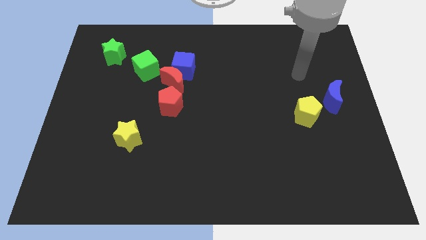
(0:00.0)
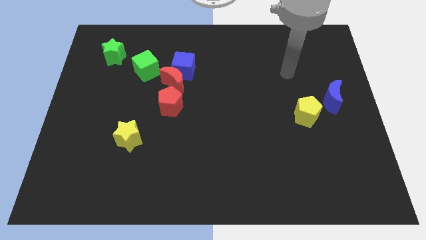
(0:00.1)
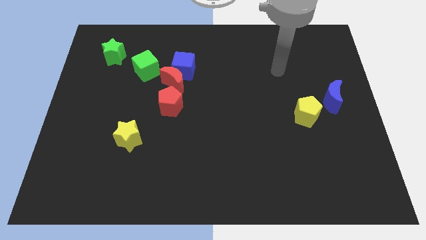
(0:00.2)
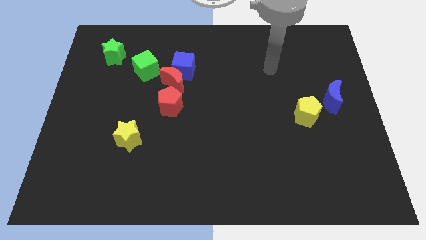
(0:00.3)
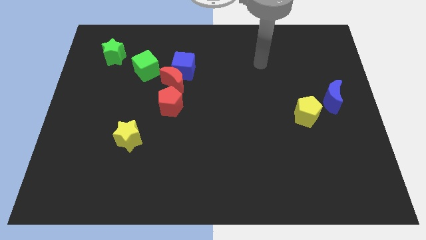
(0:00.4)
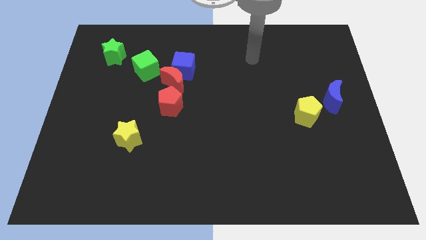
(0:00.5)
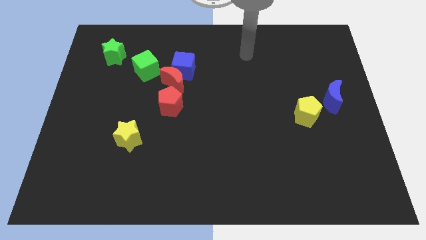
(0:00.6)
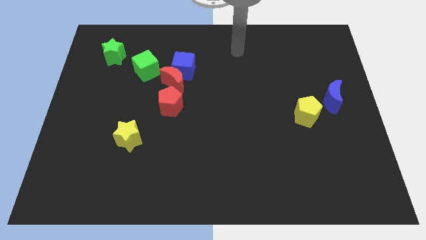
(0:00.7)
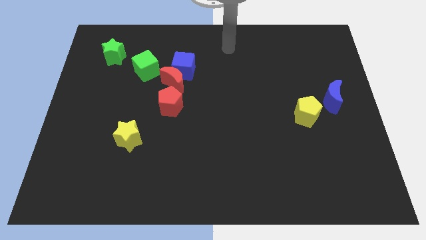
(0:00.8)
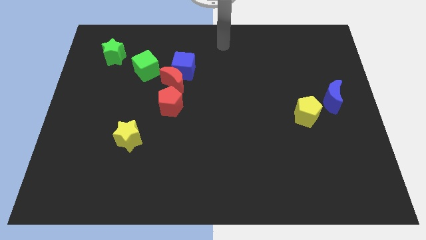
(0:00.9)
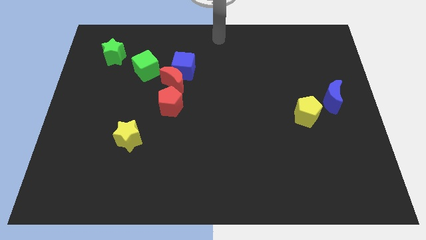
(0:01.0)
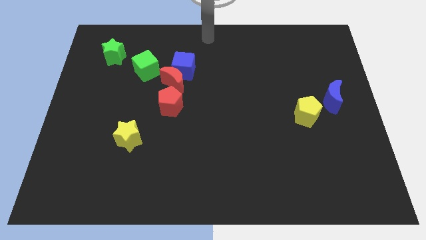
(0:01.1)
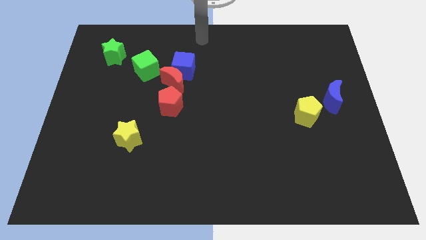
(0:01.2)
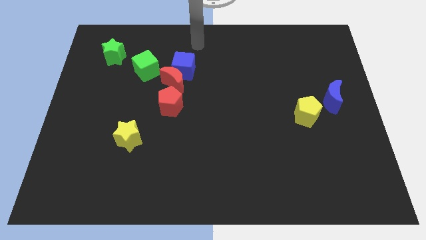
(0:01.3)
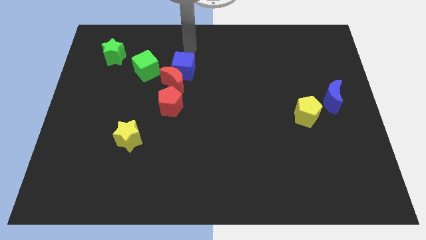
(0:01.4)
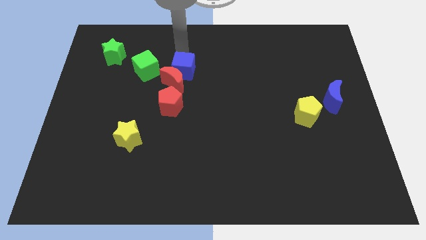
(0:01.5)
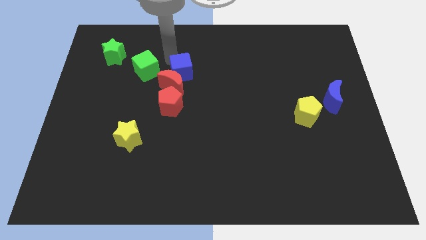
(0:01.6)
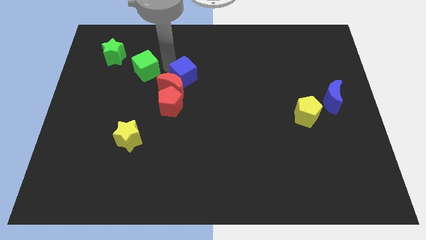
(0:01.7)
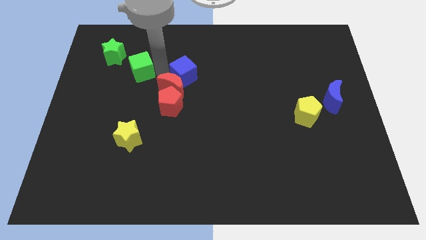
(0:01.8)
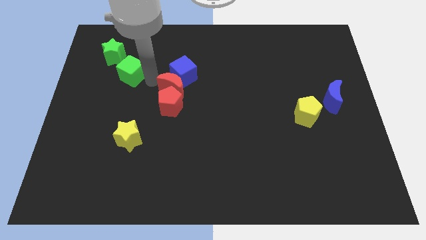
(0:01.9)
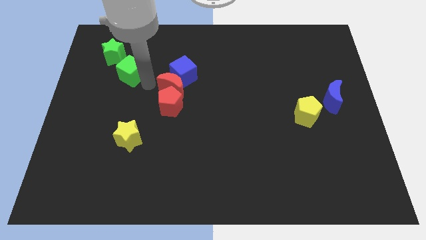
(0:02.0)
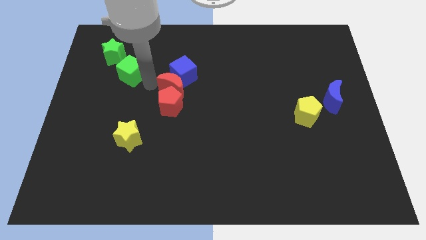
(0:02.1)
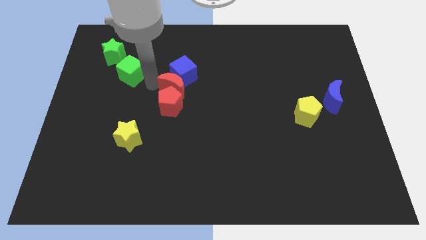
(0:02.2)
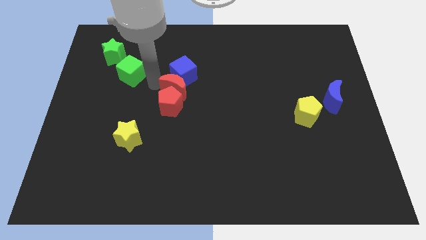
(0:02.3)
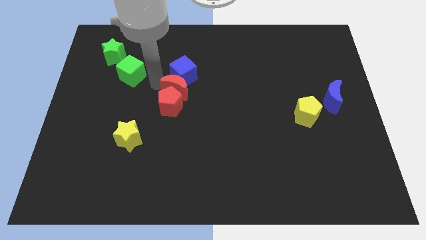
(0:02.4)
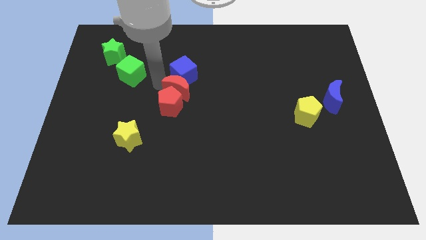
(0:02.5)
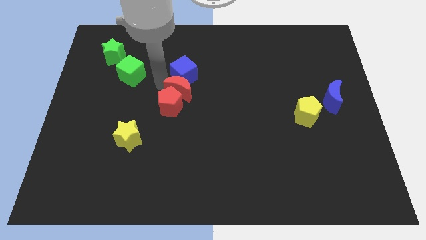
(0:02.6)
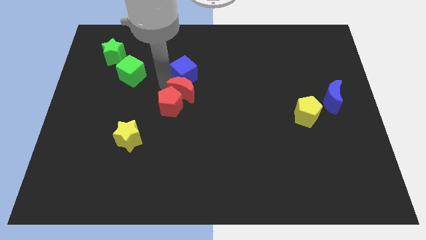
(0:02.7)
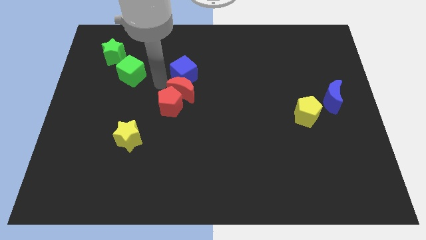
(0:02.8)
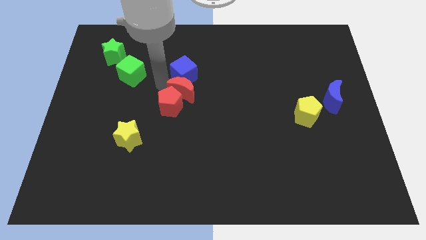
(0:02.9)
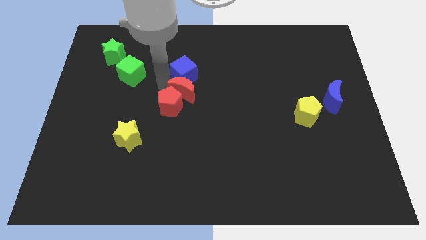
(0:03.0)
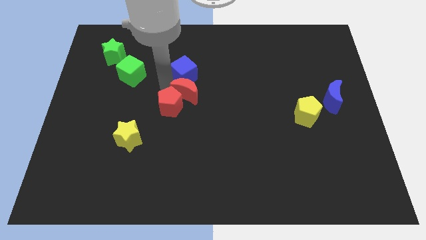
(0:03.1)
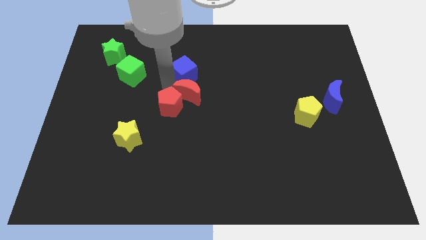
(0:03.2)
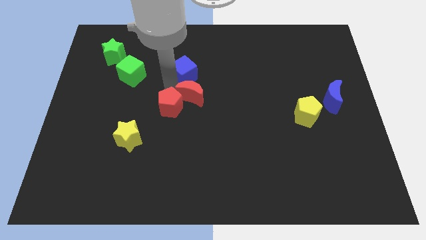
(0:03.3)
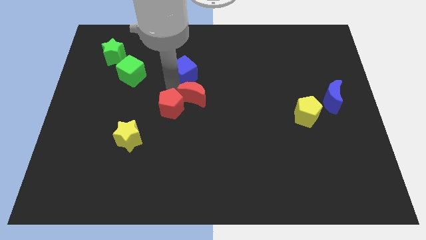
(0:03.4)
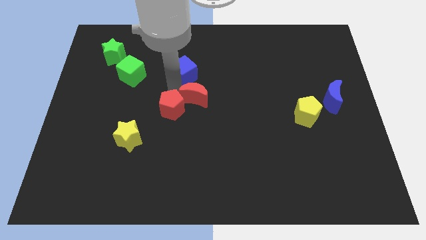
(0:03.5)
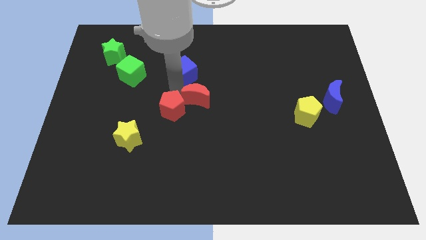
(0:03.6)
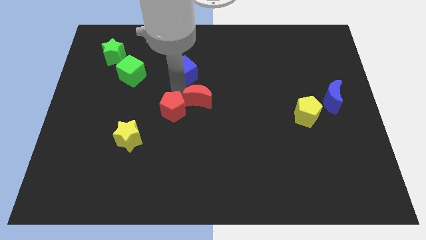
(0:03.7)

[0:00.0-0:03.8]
pull the red moon apart from the blue cube, red pentagon, and green cube

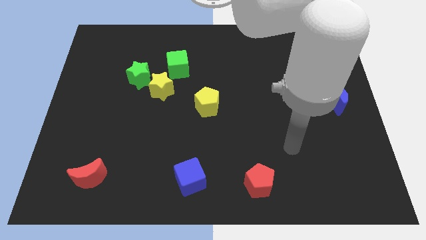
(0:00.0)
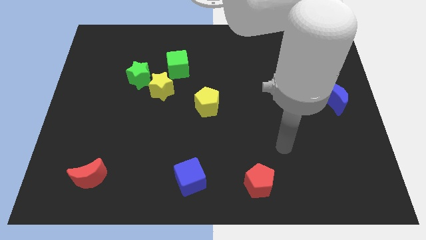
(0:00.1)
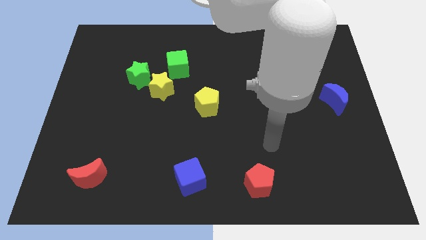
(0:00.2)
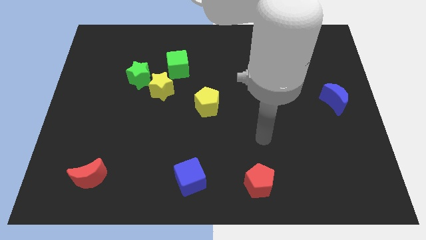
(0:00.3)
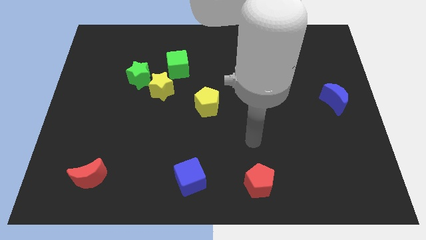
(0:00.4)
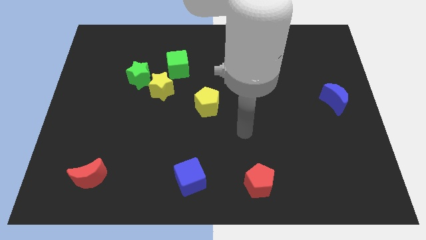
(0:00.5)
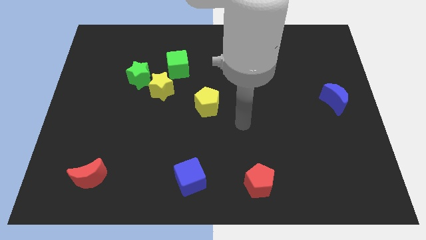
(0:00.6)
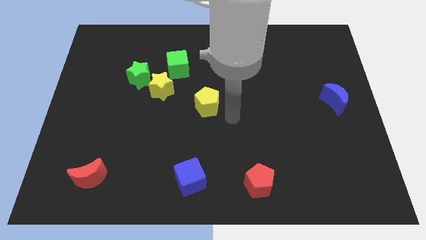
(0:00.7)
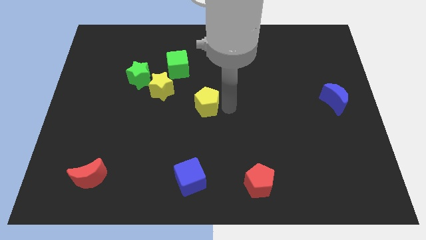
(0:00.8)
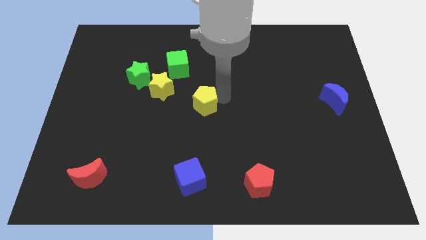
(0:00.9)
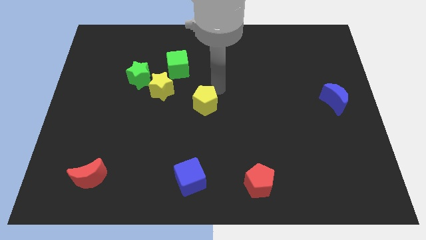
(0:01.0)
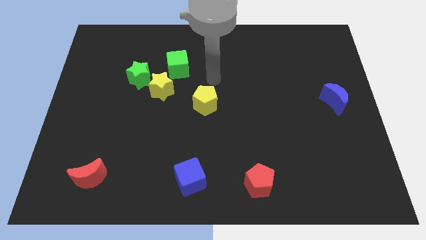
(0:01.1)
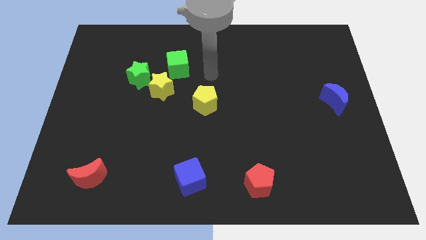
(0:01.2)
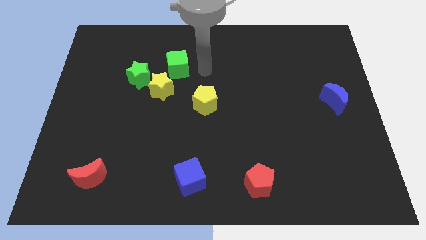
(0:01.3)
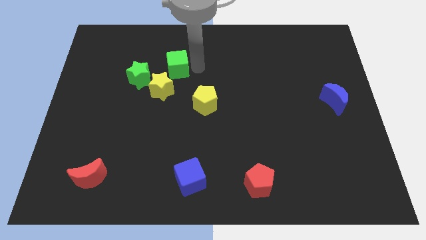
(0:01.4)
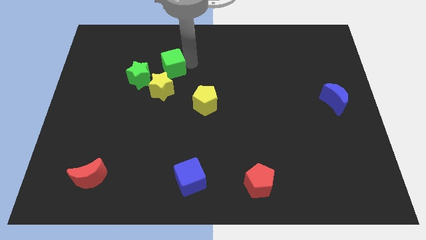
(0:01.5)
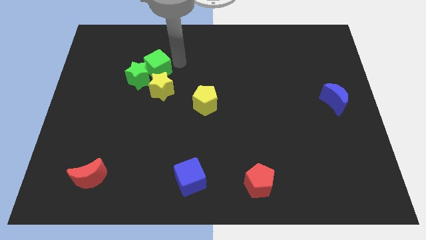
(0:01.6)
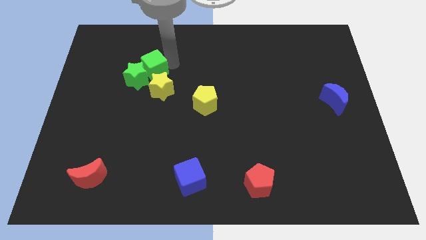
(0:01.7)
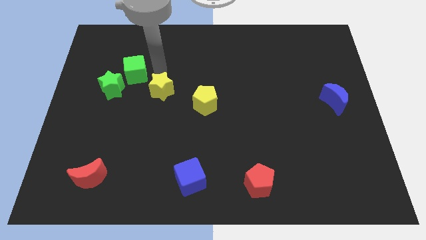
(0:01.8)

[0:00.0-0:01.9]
separate the yellow star from the green star and green cube

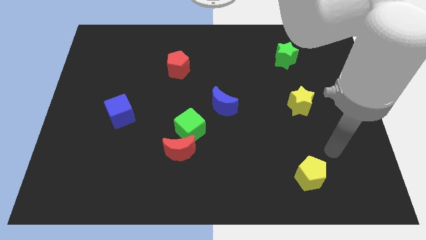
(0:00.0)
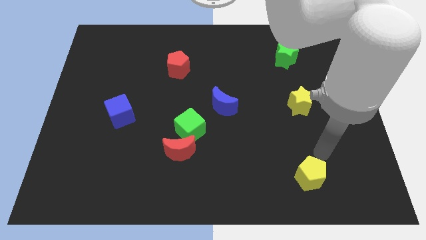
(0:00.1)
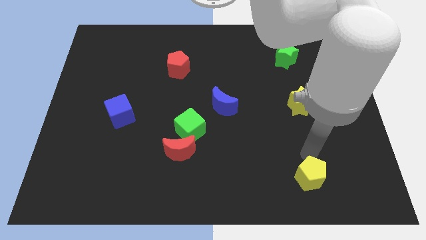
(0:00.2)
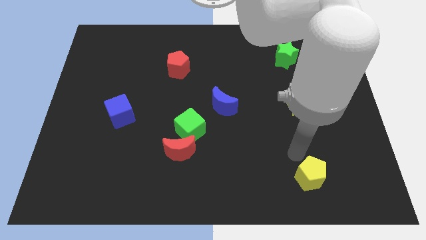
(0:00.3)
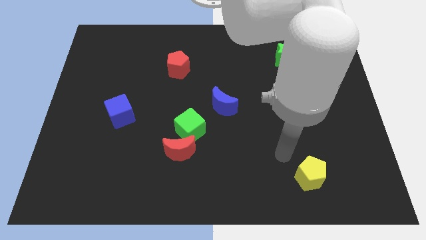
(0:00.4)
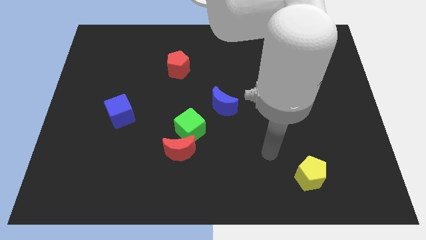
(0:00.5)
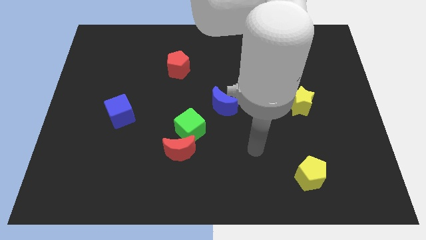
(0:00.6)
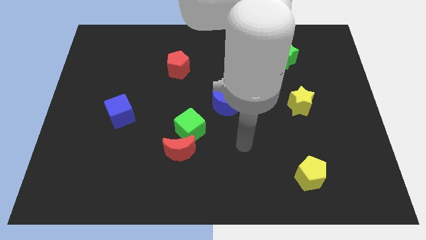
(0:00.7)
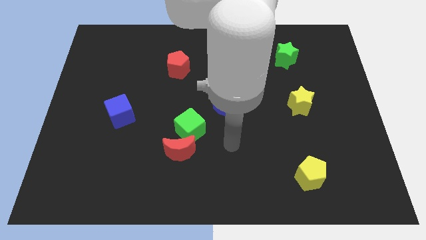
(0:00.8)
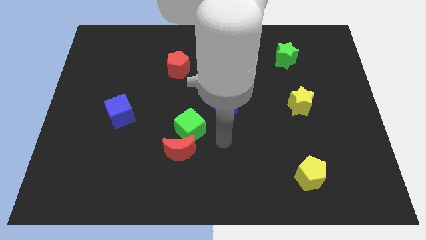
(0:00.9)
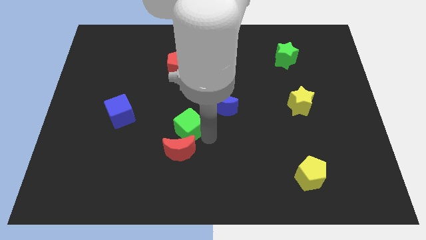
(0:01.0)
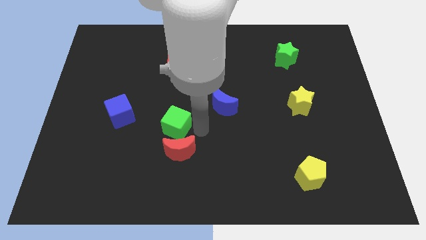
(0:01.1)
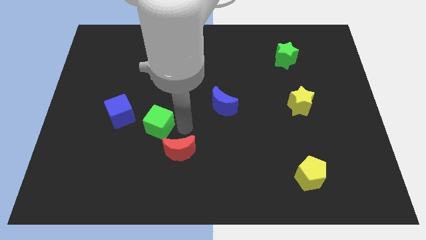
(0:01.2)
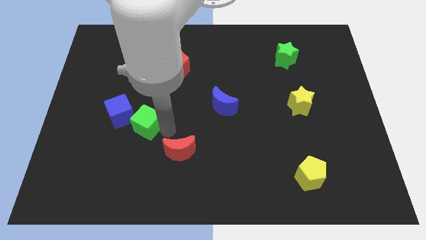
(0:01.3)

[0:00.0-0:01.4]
move the red moon away from the green cube

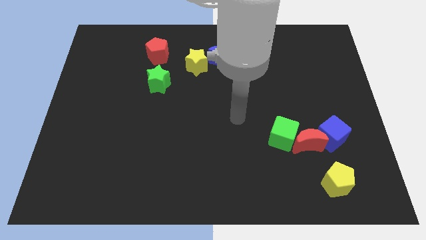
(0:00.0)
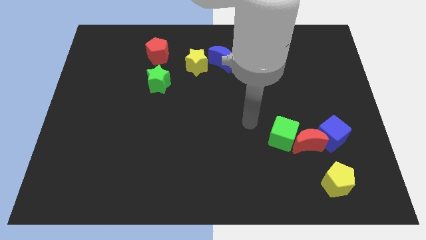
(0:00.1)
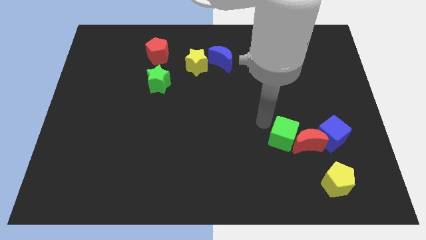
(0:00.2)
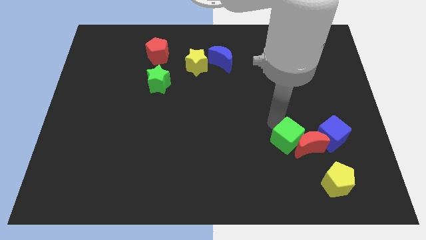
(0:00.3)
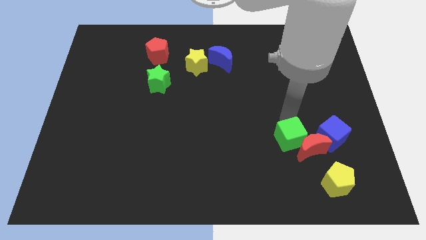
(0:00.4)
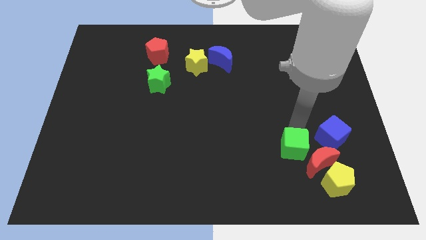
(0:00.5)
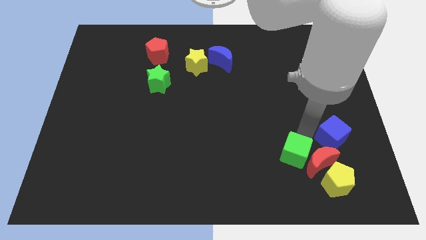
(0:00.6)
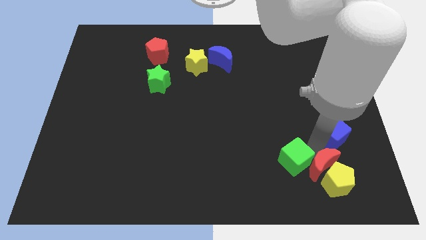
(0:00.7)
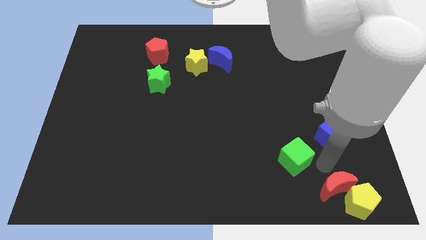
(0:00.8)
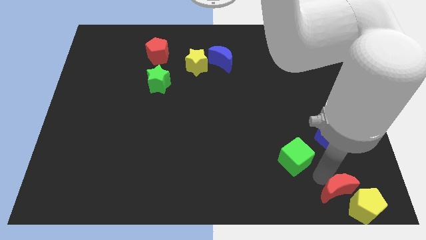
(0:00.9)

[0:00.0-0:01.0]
pull the green cube apart from the red moon

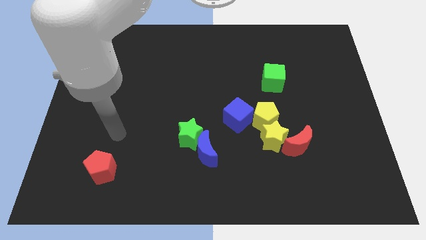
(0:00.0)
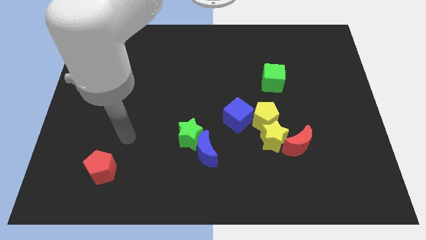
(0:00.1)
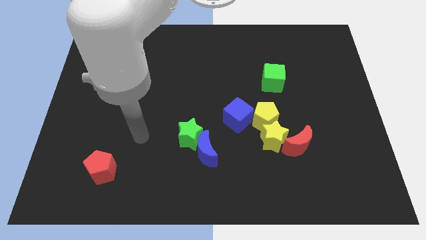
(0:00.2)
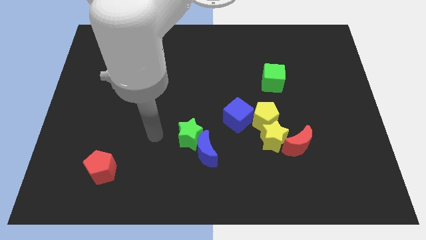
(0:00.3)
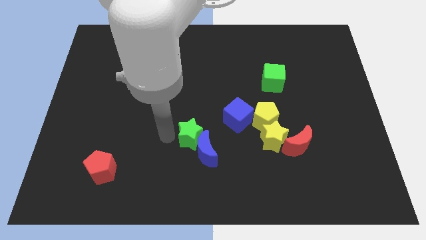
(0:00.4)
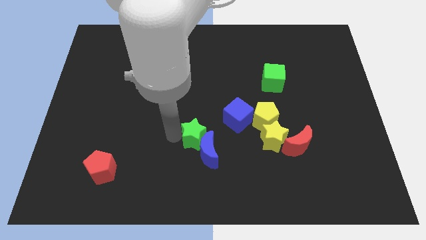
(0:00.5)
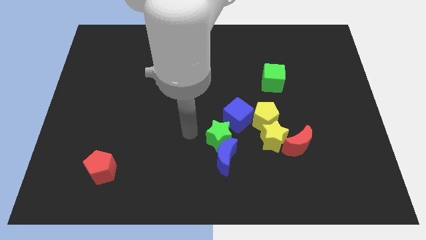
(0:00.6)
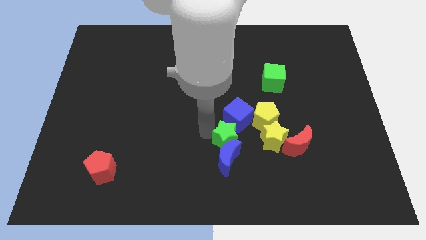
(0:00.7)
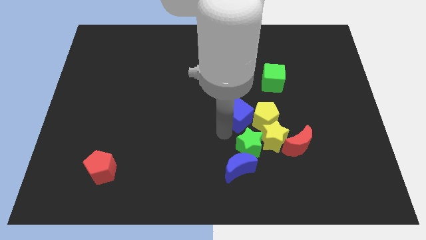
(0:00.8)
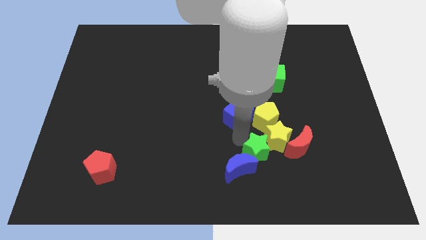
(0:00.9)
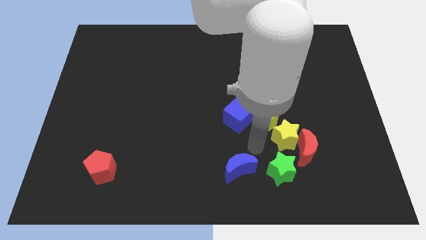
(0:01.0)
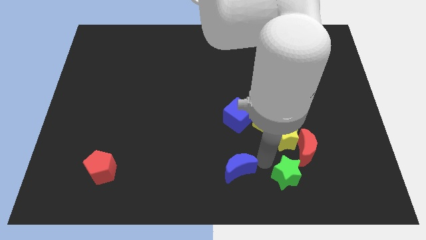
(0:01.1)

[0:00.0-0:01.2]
separate the blue moon from the green star
